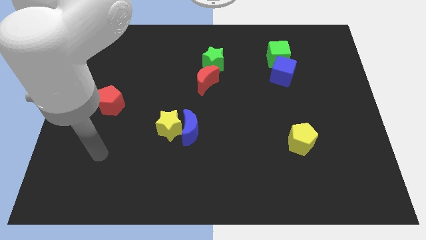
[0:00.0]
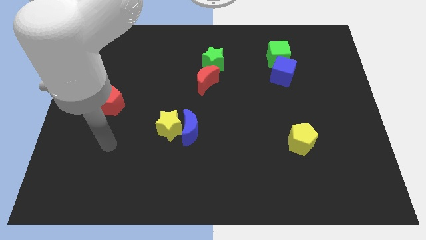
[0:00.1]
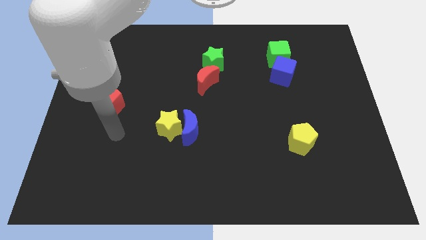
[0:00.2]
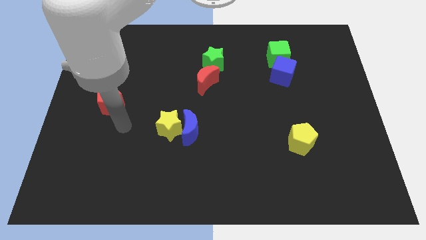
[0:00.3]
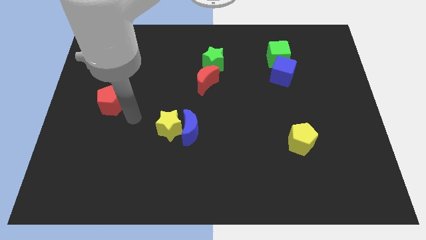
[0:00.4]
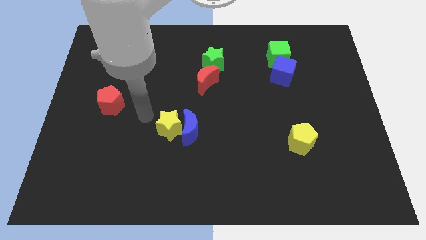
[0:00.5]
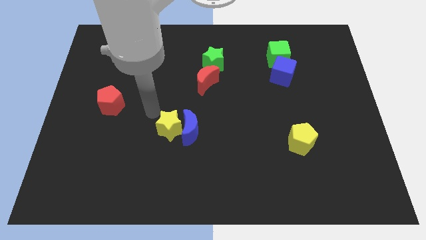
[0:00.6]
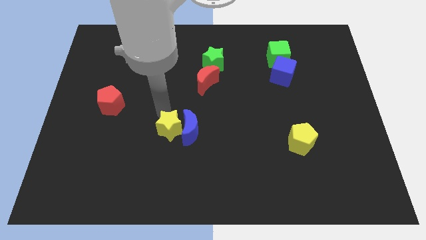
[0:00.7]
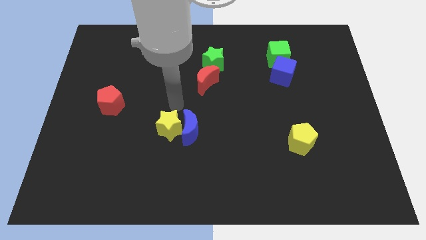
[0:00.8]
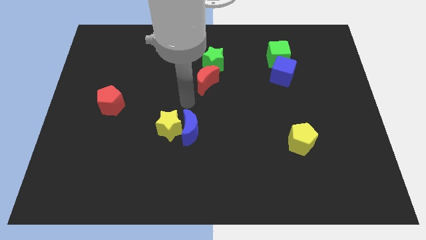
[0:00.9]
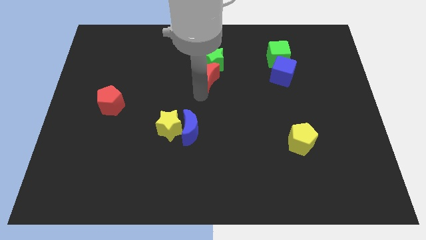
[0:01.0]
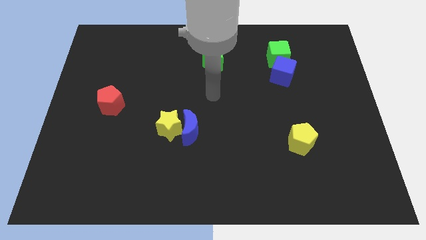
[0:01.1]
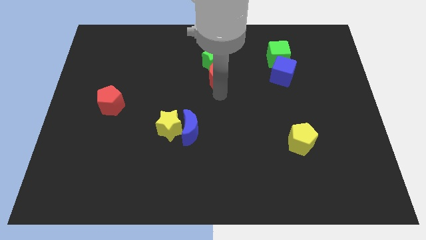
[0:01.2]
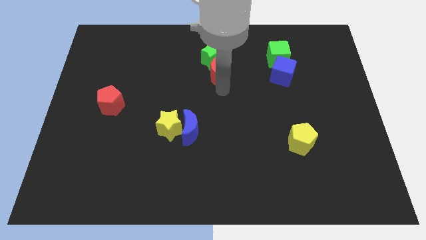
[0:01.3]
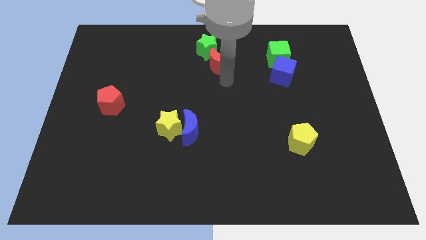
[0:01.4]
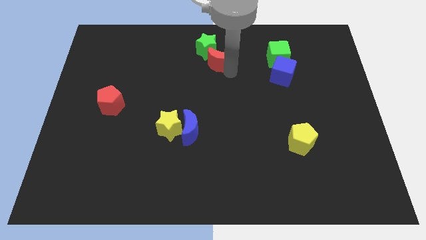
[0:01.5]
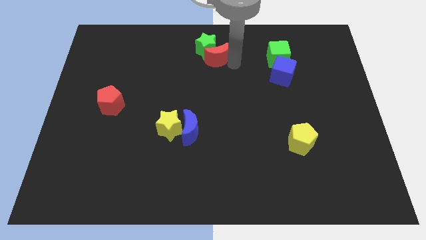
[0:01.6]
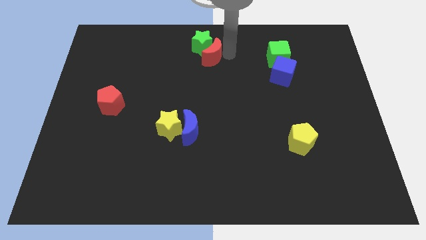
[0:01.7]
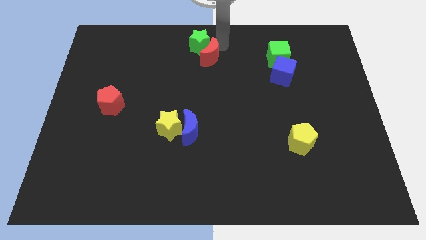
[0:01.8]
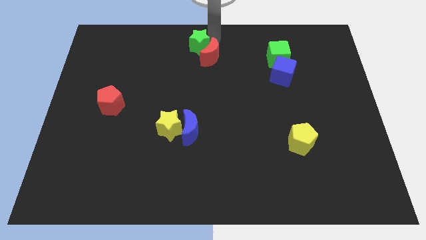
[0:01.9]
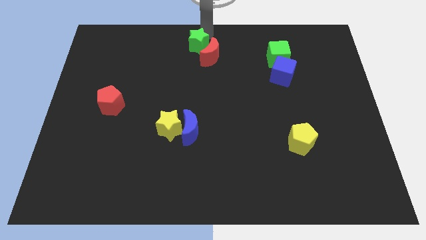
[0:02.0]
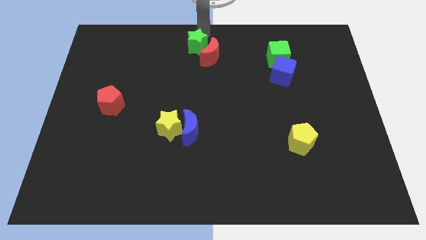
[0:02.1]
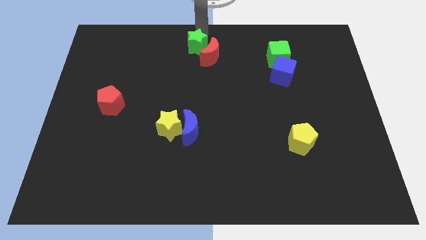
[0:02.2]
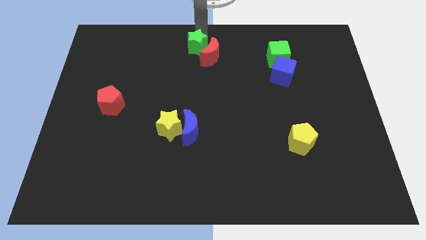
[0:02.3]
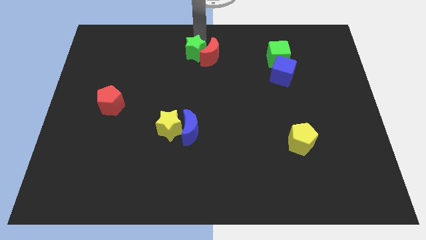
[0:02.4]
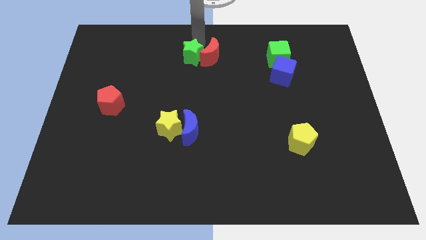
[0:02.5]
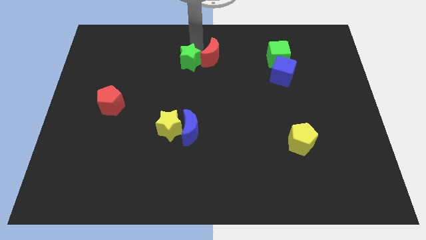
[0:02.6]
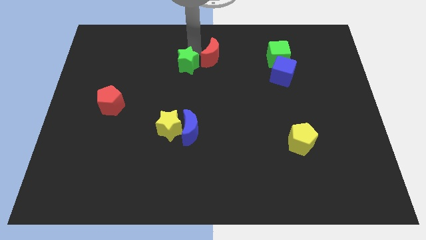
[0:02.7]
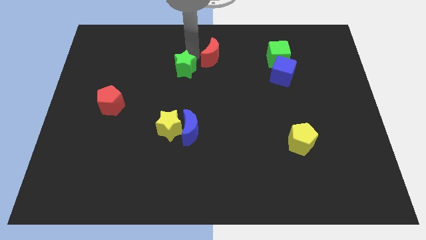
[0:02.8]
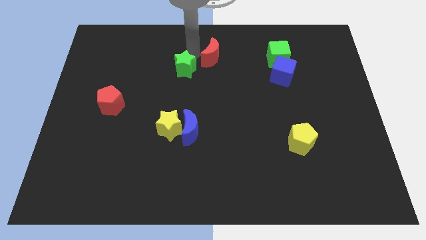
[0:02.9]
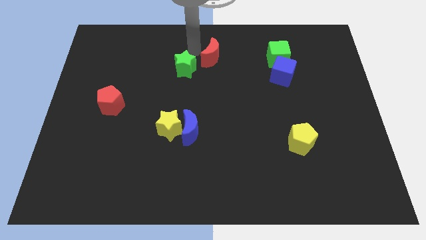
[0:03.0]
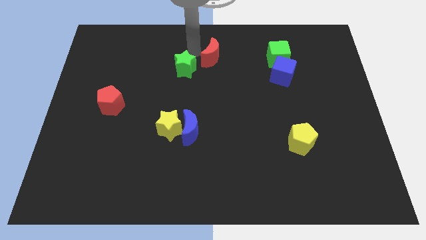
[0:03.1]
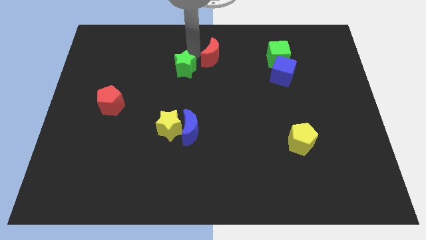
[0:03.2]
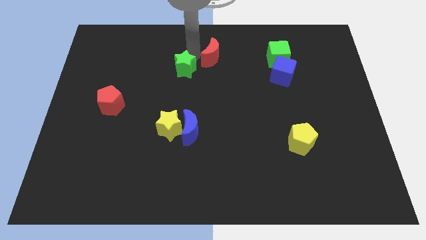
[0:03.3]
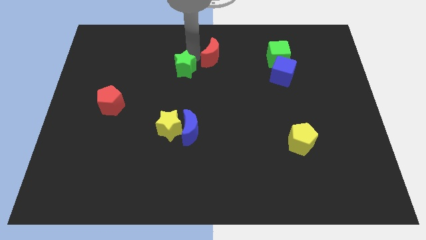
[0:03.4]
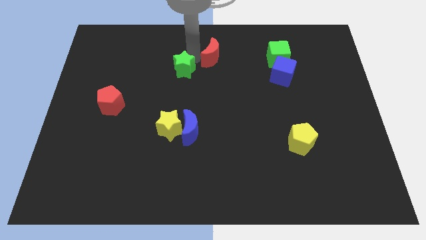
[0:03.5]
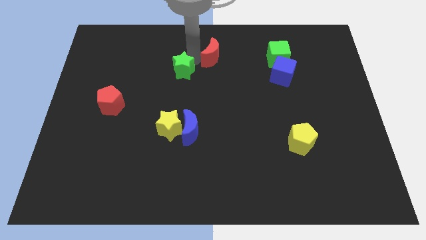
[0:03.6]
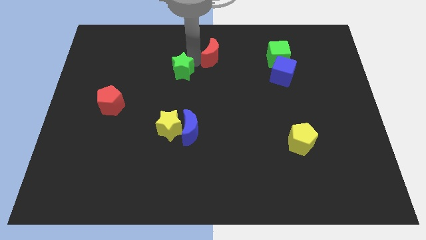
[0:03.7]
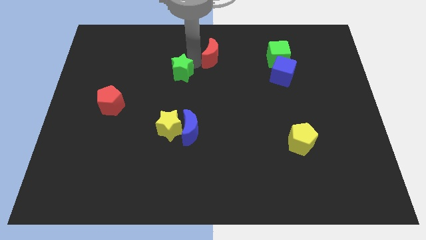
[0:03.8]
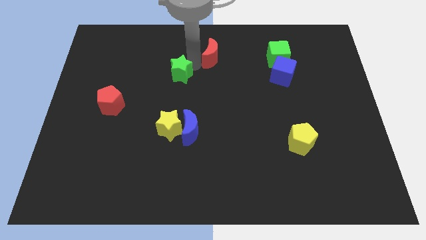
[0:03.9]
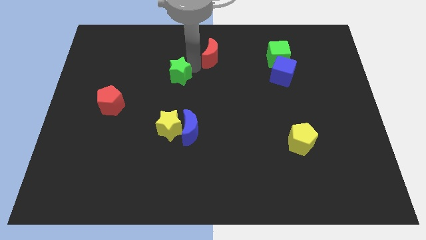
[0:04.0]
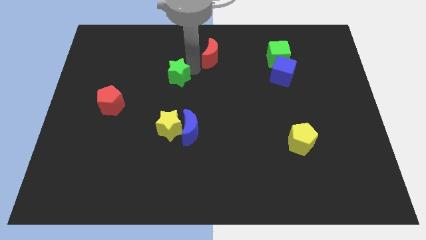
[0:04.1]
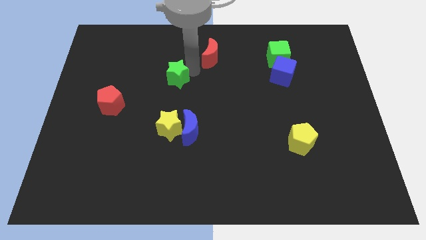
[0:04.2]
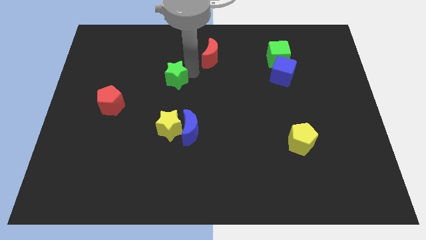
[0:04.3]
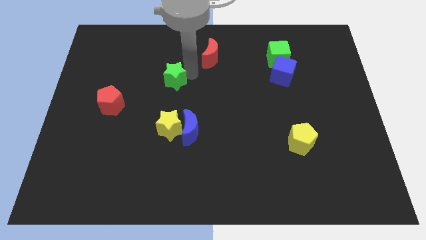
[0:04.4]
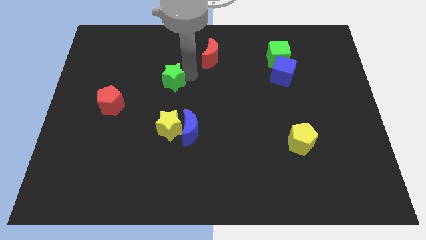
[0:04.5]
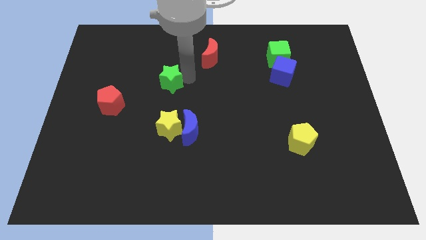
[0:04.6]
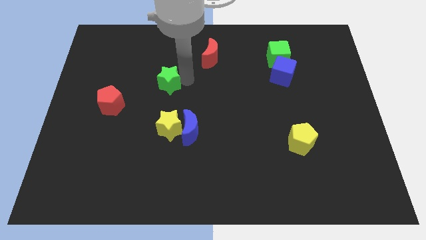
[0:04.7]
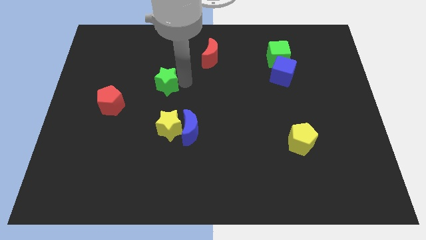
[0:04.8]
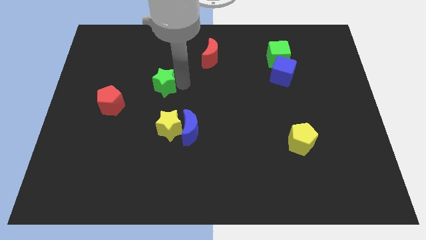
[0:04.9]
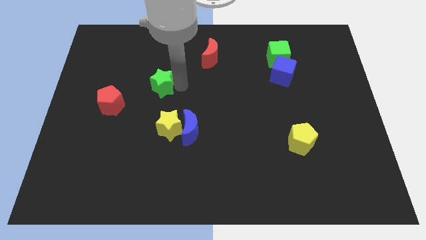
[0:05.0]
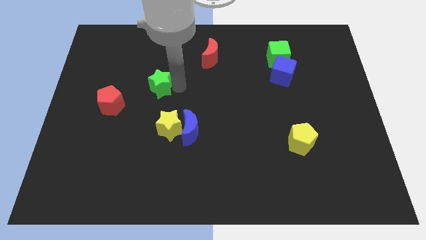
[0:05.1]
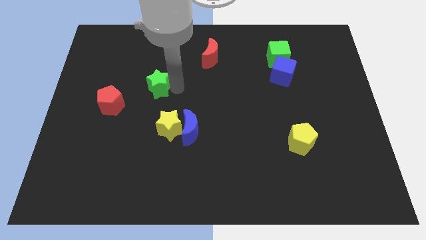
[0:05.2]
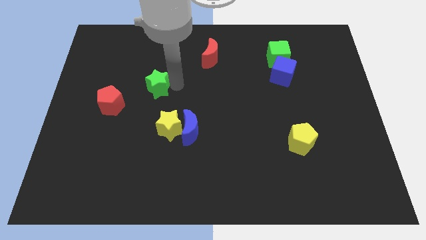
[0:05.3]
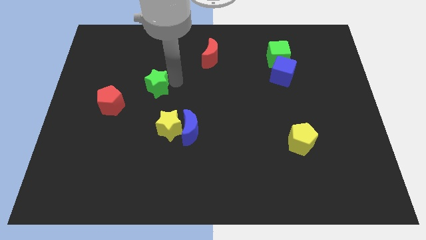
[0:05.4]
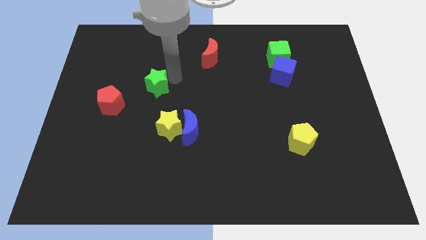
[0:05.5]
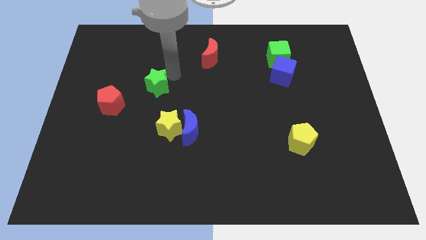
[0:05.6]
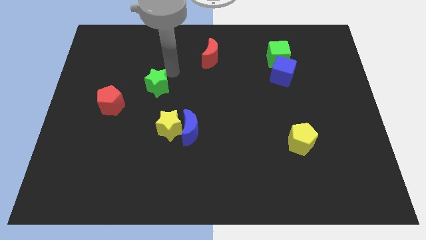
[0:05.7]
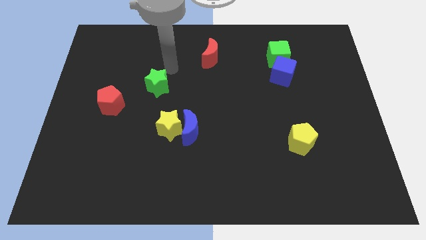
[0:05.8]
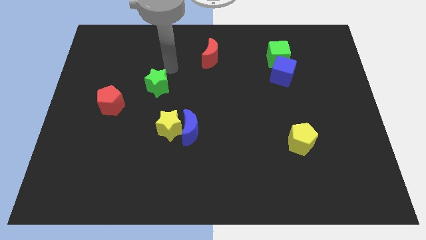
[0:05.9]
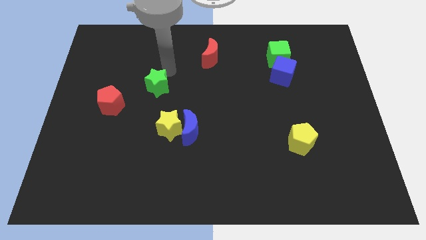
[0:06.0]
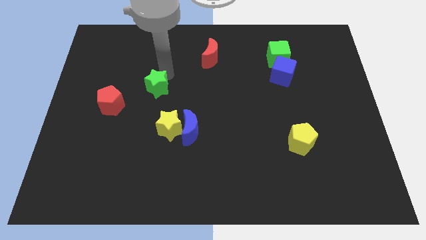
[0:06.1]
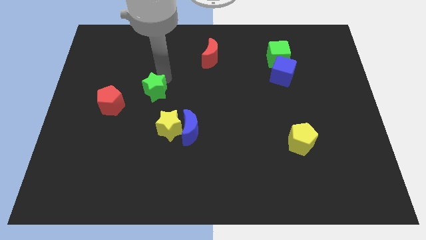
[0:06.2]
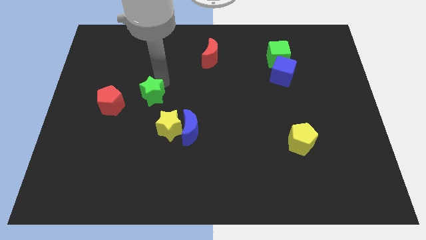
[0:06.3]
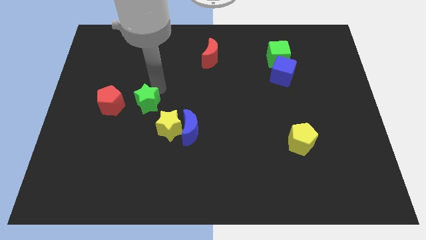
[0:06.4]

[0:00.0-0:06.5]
push the green star diagonally down and to the left

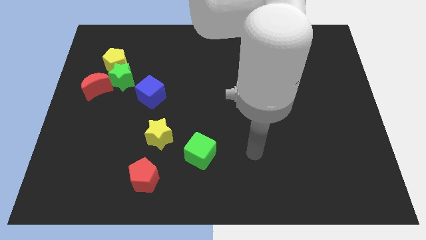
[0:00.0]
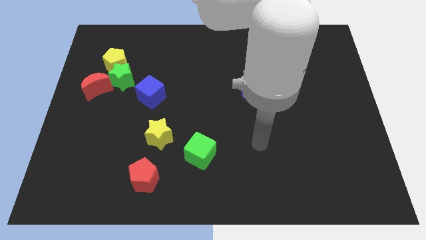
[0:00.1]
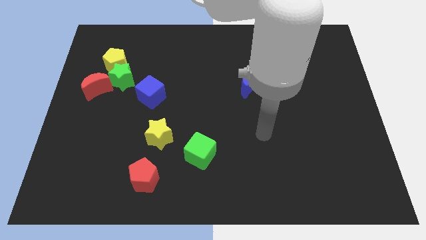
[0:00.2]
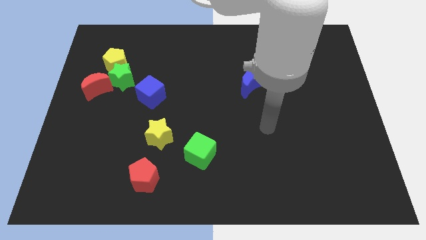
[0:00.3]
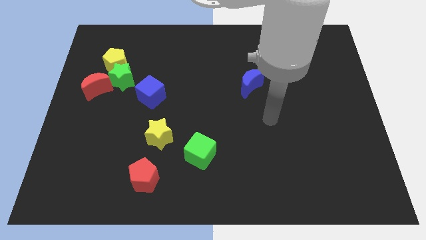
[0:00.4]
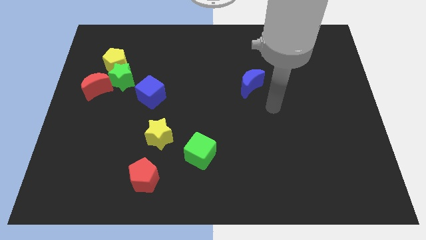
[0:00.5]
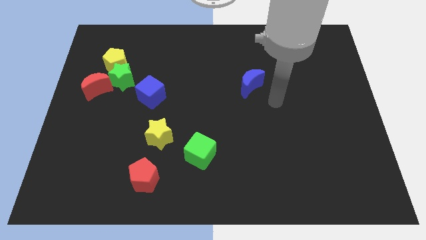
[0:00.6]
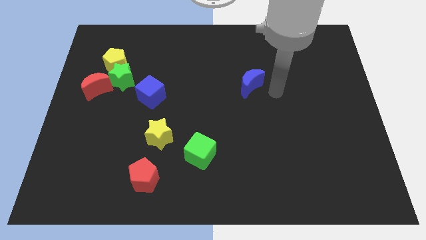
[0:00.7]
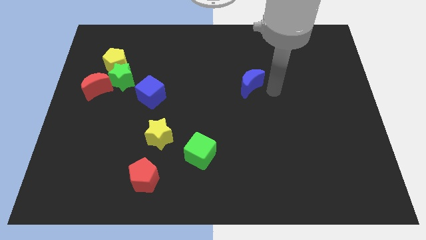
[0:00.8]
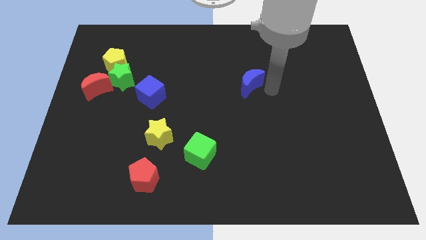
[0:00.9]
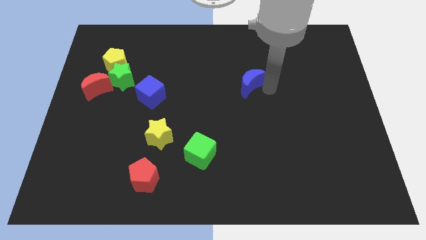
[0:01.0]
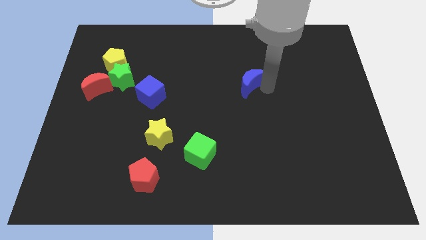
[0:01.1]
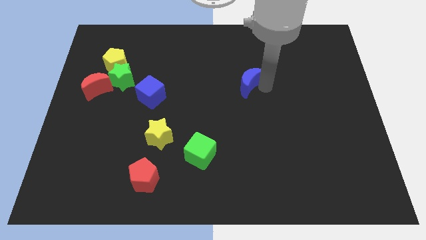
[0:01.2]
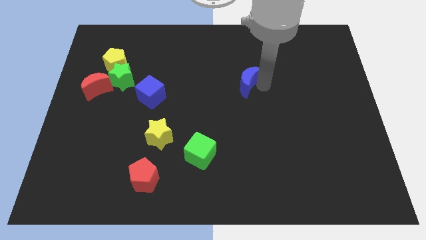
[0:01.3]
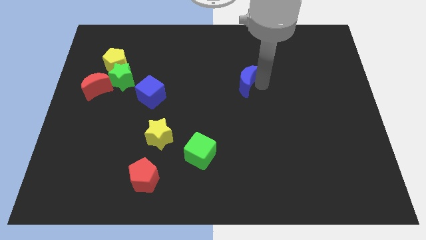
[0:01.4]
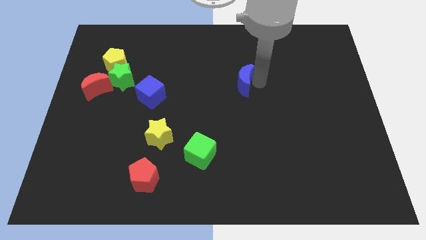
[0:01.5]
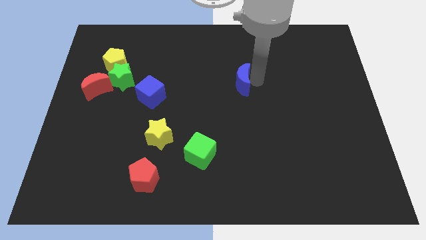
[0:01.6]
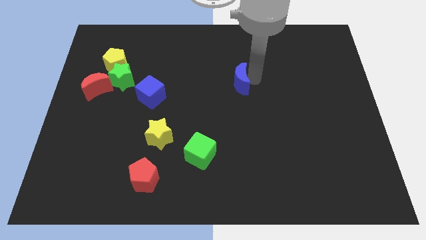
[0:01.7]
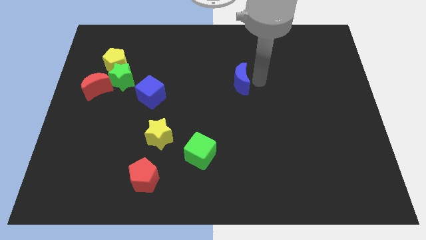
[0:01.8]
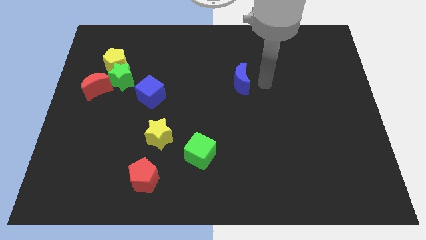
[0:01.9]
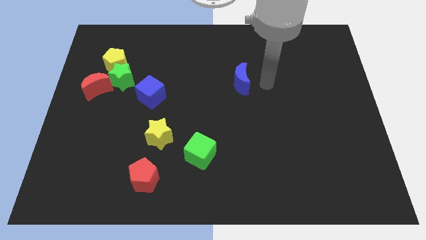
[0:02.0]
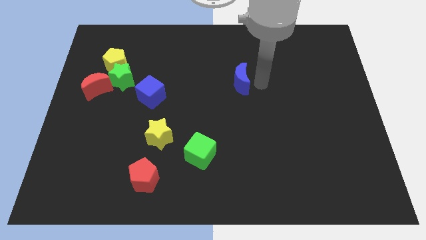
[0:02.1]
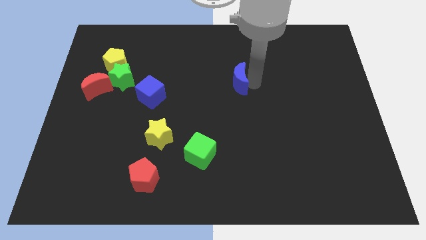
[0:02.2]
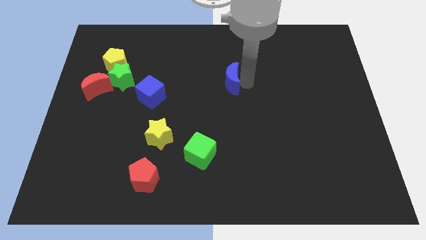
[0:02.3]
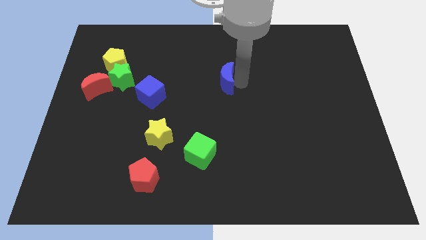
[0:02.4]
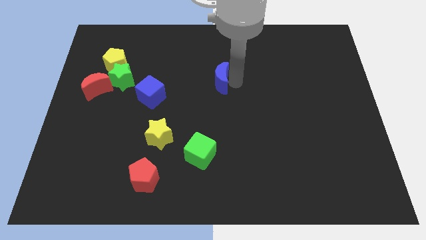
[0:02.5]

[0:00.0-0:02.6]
slightly slide the blue moon left
